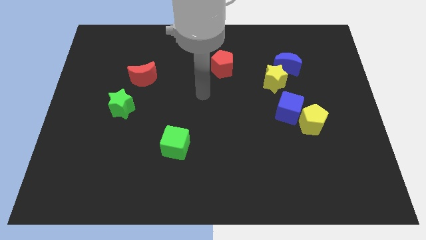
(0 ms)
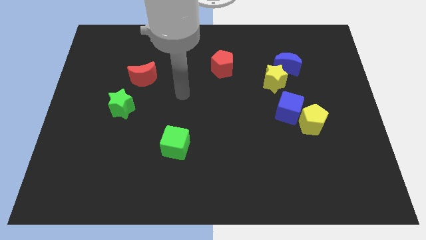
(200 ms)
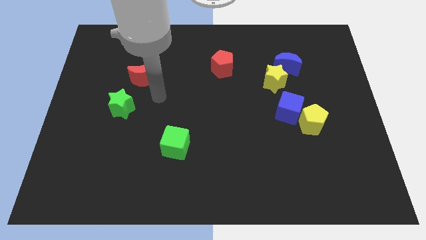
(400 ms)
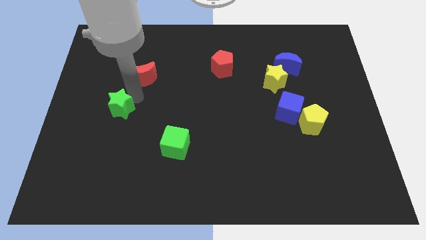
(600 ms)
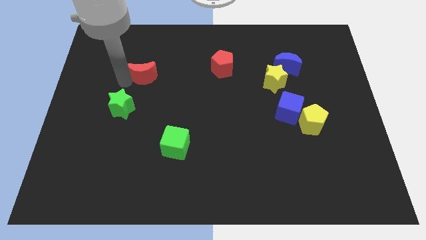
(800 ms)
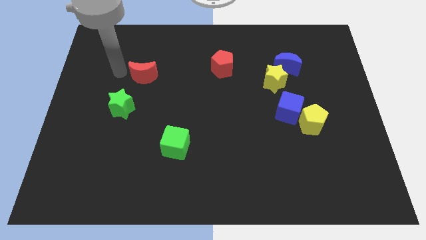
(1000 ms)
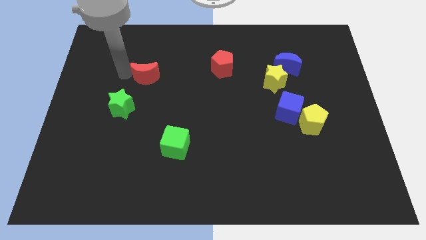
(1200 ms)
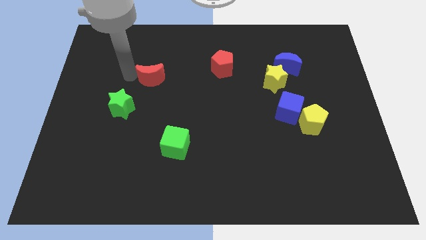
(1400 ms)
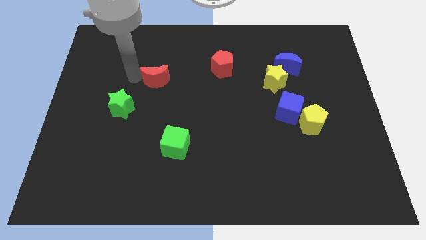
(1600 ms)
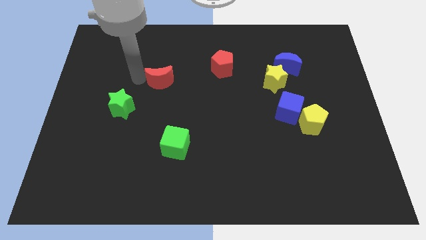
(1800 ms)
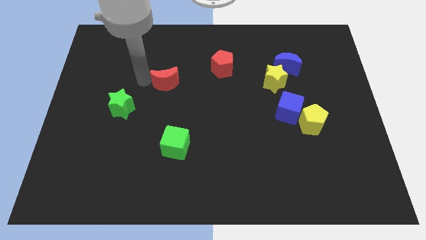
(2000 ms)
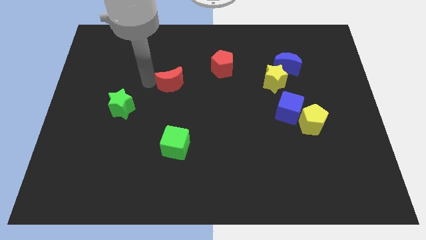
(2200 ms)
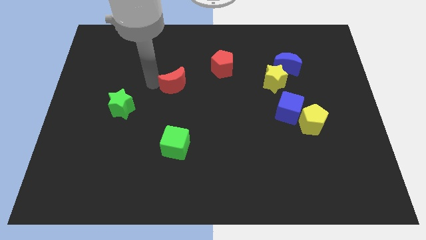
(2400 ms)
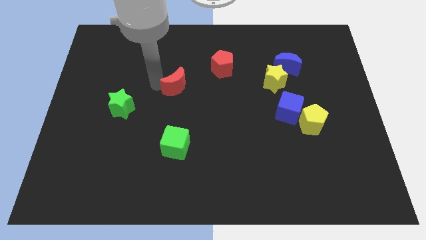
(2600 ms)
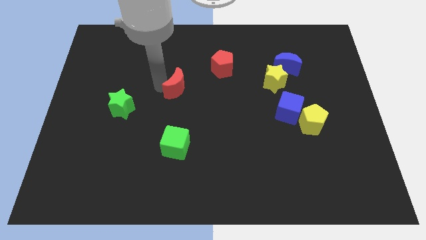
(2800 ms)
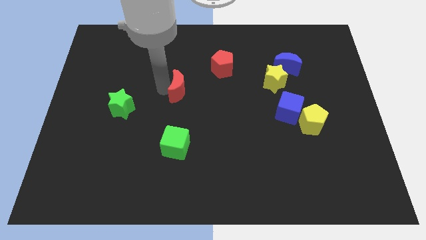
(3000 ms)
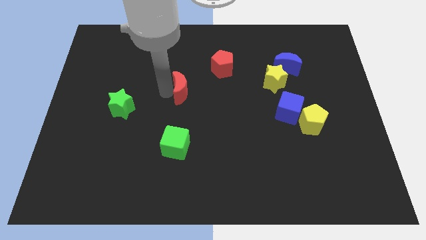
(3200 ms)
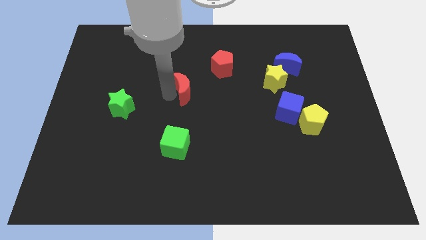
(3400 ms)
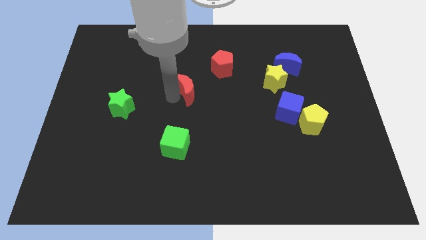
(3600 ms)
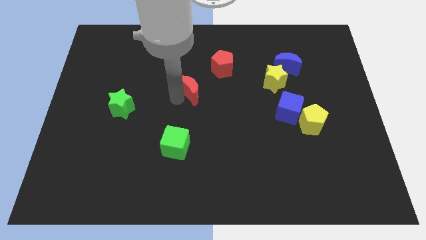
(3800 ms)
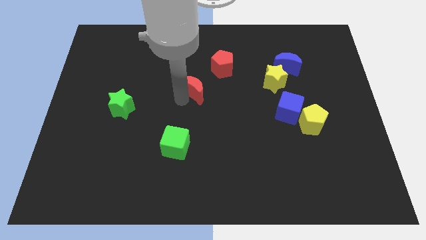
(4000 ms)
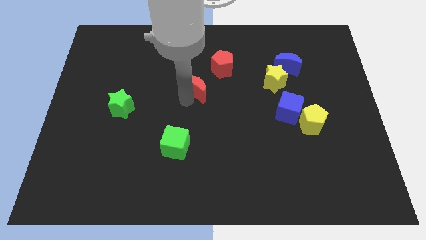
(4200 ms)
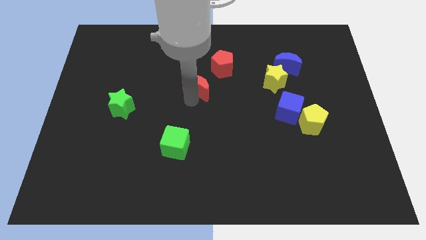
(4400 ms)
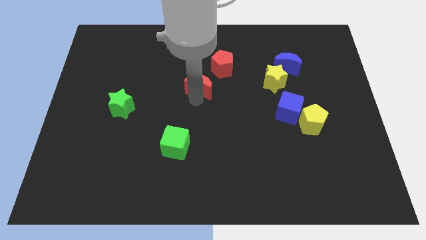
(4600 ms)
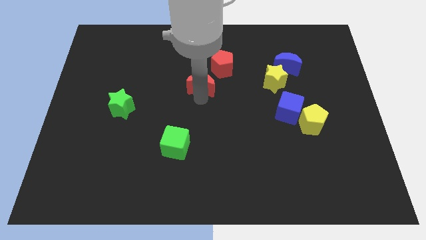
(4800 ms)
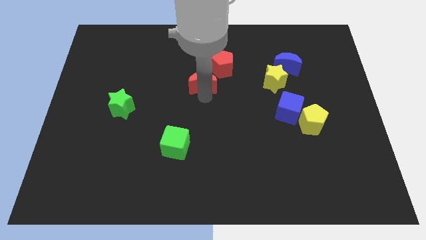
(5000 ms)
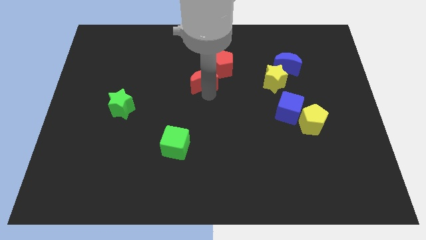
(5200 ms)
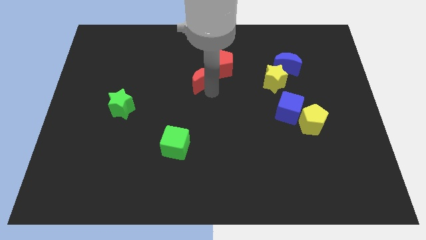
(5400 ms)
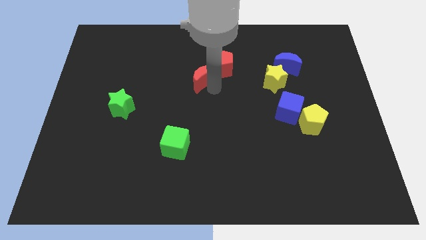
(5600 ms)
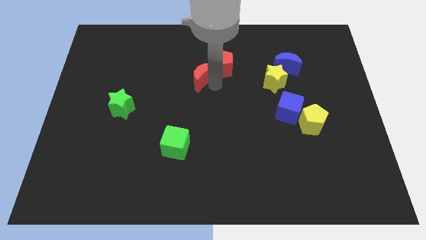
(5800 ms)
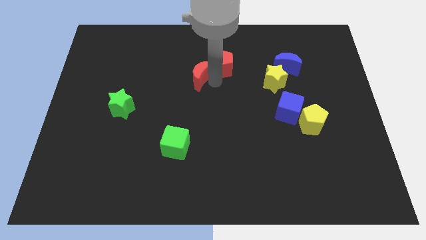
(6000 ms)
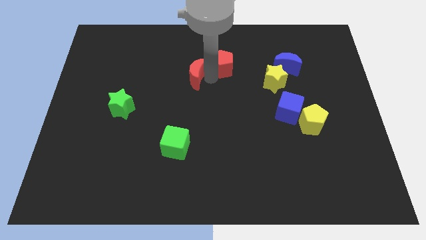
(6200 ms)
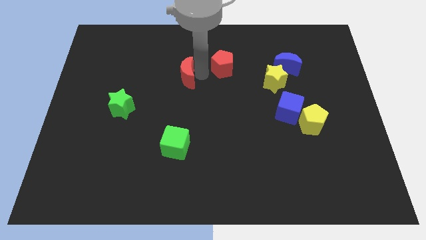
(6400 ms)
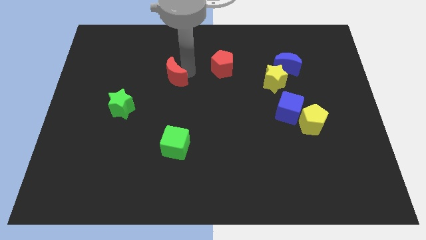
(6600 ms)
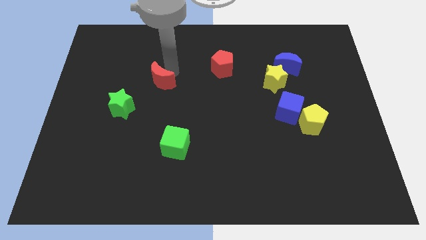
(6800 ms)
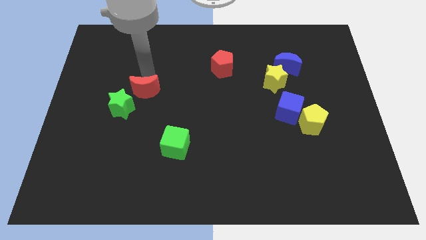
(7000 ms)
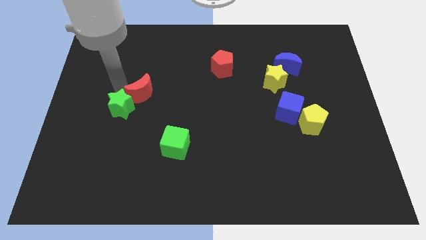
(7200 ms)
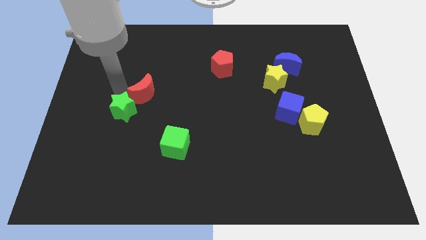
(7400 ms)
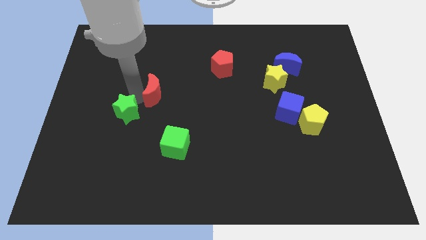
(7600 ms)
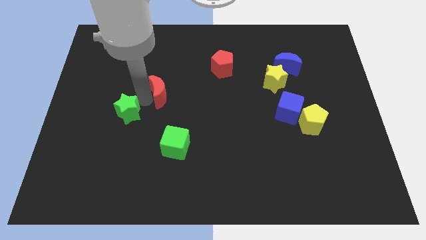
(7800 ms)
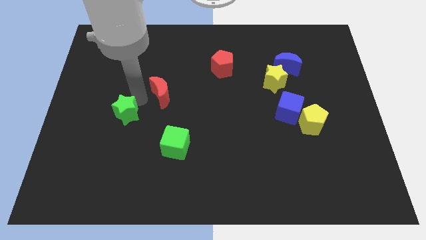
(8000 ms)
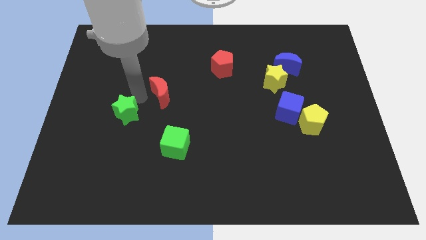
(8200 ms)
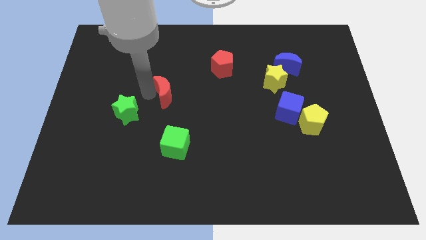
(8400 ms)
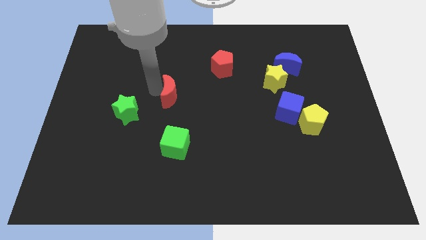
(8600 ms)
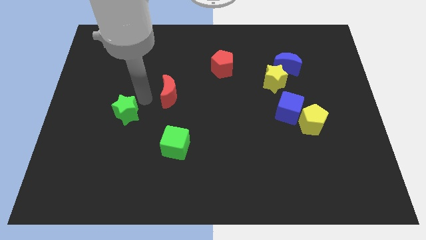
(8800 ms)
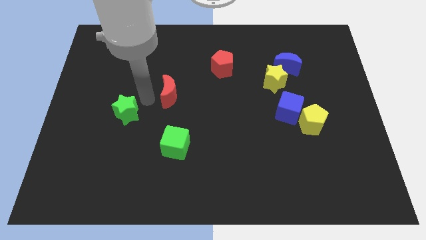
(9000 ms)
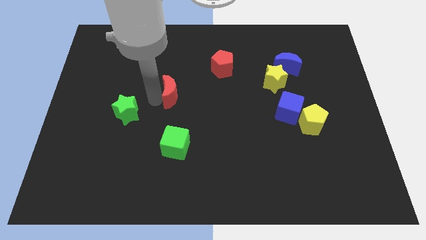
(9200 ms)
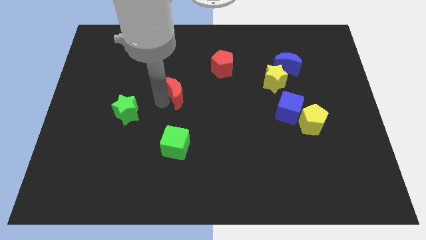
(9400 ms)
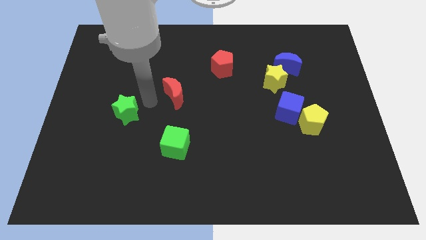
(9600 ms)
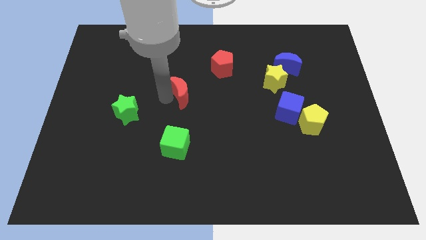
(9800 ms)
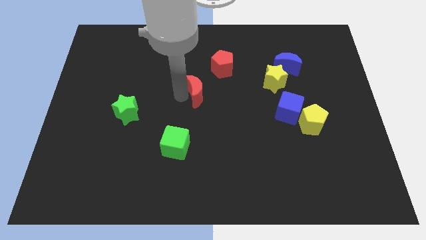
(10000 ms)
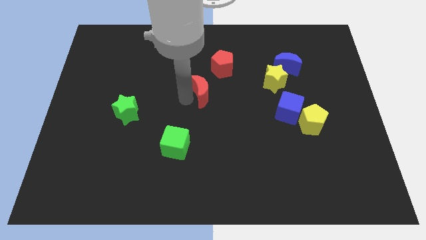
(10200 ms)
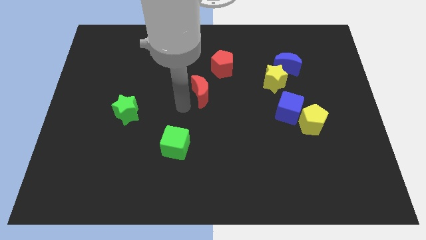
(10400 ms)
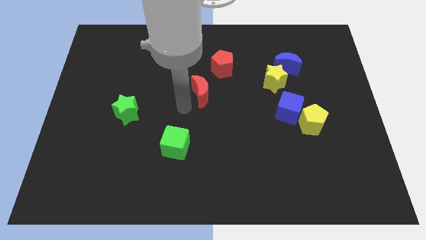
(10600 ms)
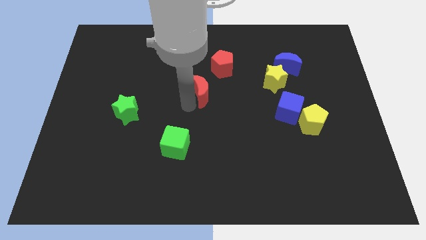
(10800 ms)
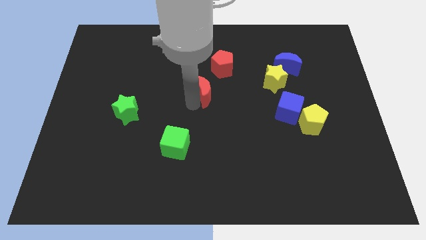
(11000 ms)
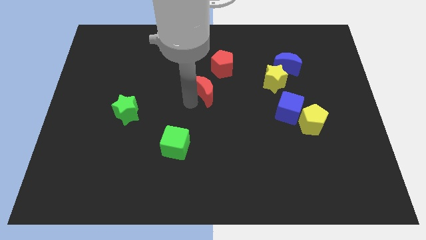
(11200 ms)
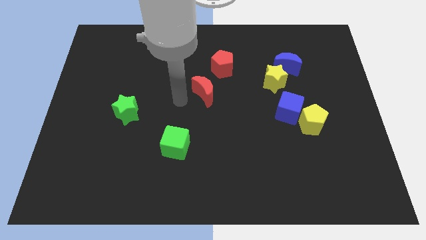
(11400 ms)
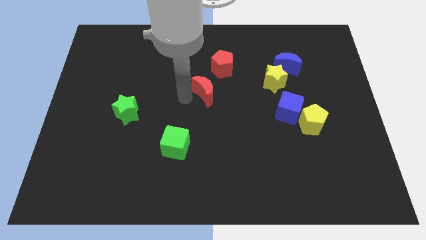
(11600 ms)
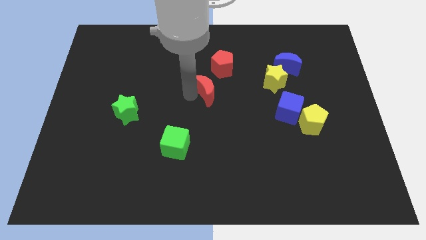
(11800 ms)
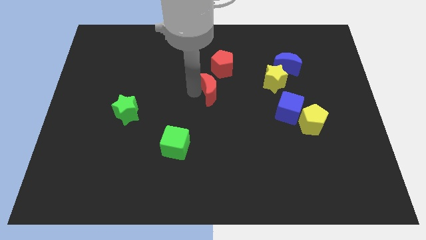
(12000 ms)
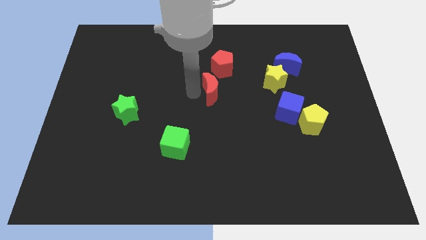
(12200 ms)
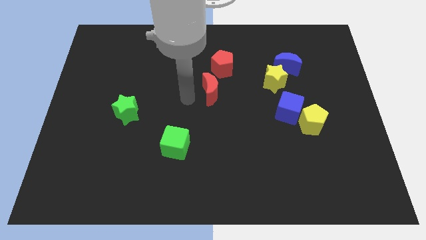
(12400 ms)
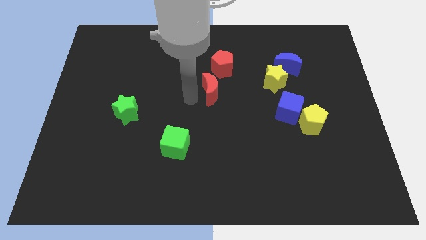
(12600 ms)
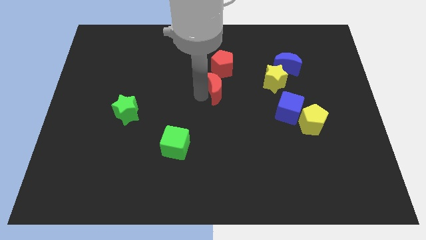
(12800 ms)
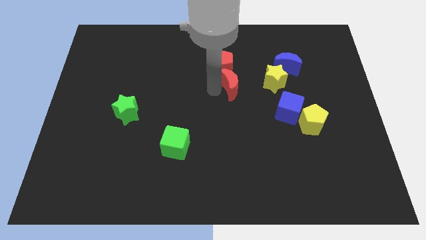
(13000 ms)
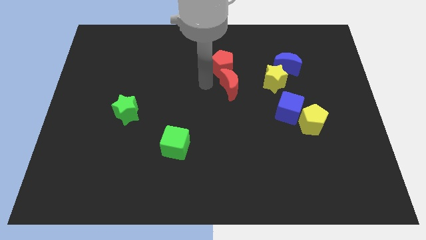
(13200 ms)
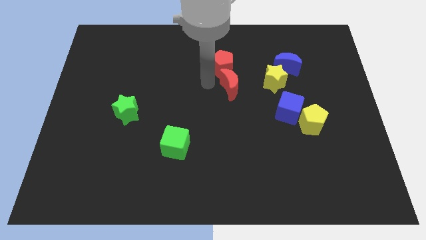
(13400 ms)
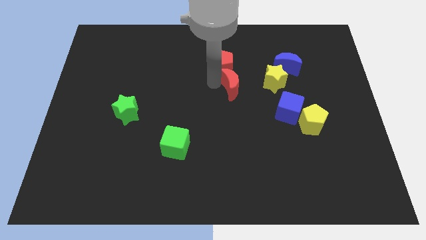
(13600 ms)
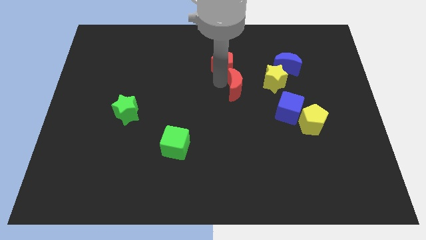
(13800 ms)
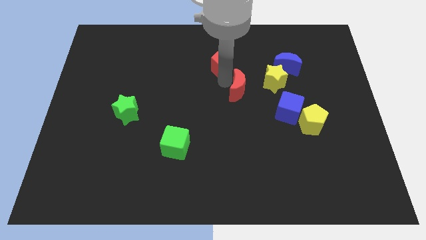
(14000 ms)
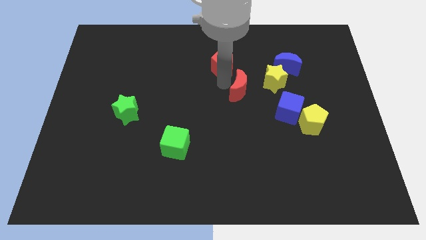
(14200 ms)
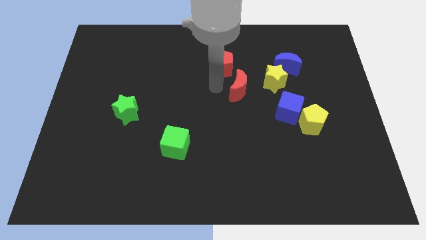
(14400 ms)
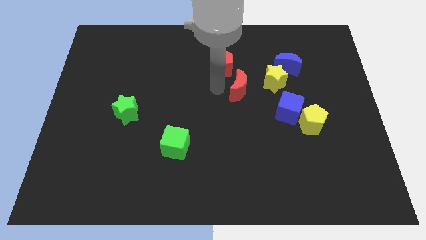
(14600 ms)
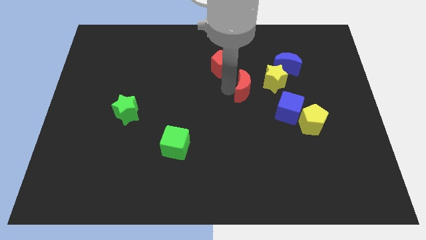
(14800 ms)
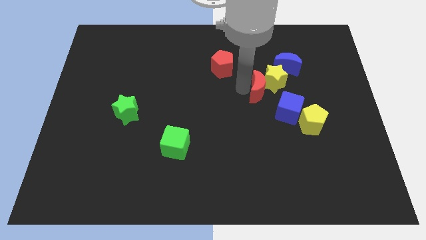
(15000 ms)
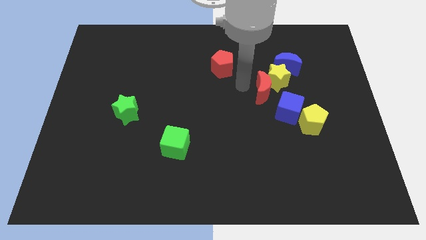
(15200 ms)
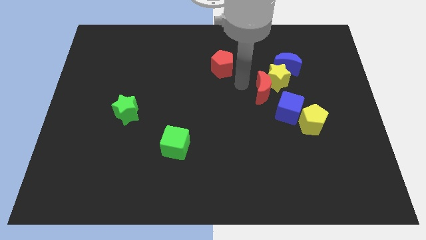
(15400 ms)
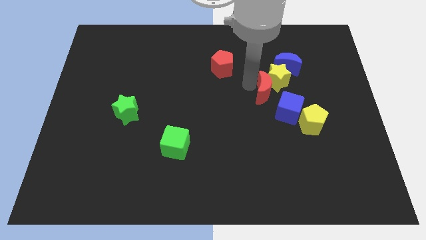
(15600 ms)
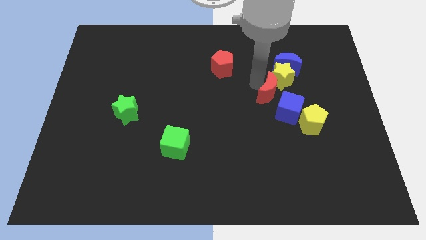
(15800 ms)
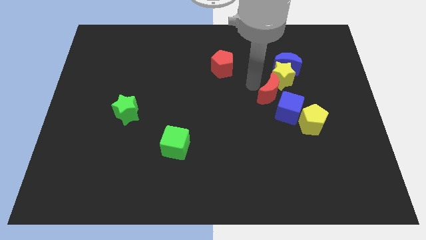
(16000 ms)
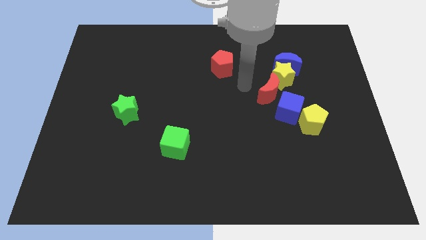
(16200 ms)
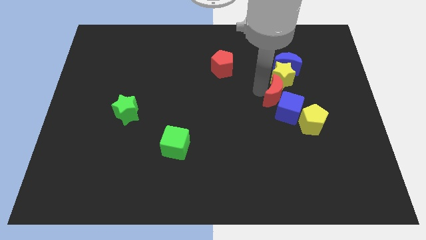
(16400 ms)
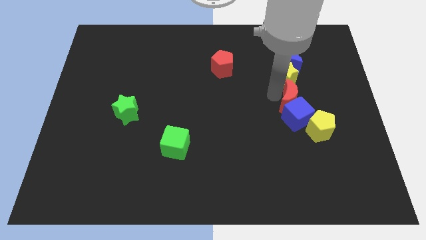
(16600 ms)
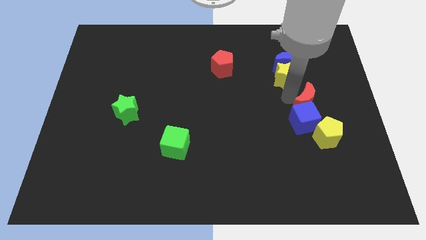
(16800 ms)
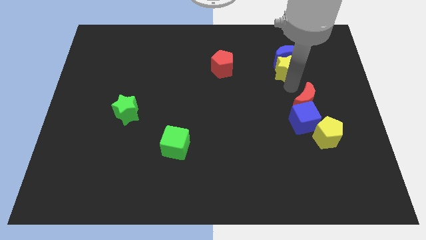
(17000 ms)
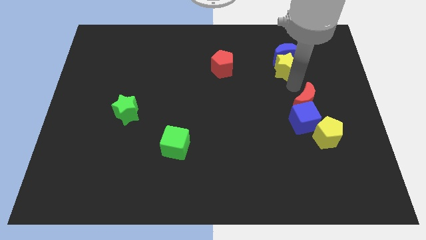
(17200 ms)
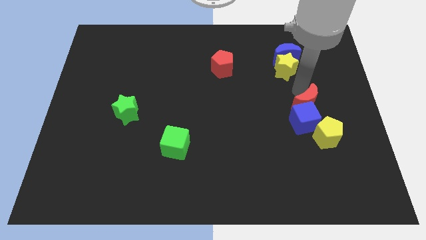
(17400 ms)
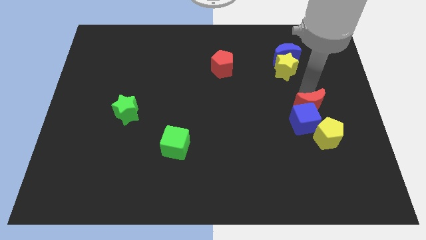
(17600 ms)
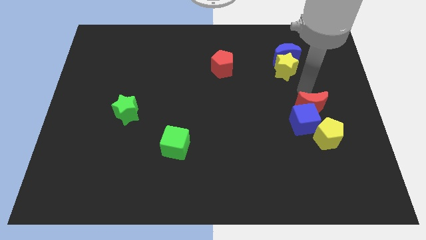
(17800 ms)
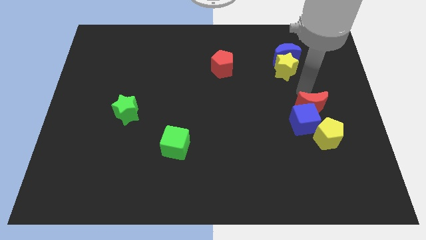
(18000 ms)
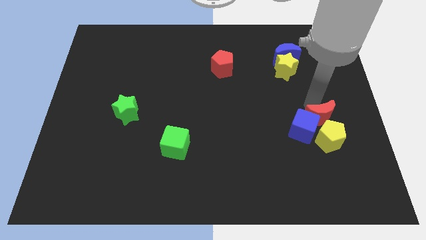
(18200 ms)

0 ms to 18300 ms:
put the red moon close to the yellow pentagon
